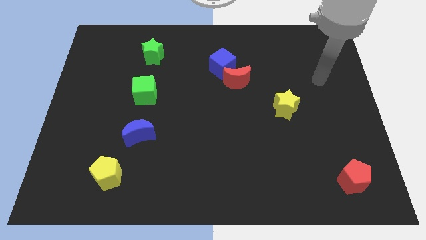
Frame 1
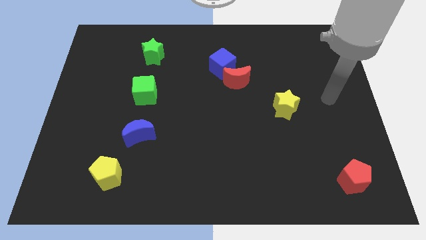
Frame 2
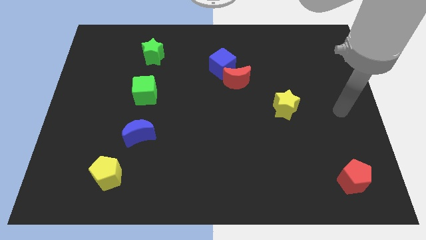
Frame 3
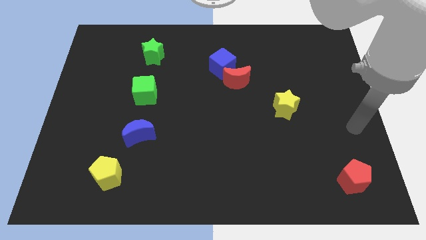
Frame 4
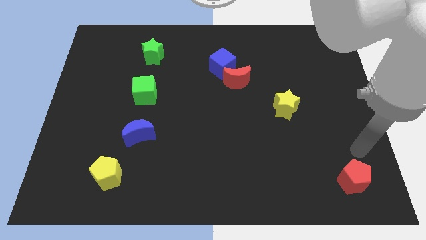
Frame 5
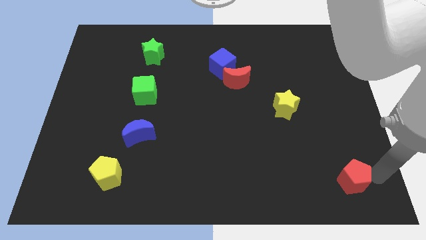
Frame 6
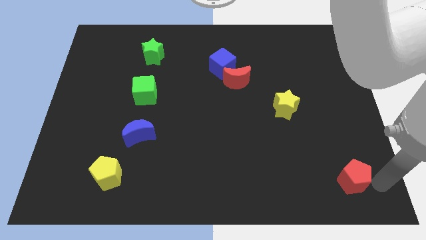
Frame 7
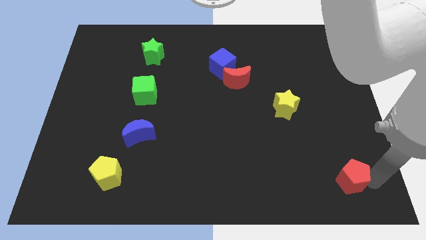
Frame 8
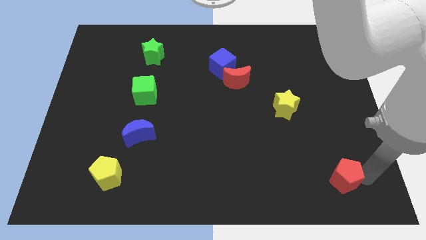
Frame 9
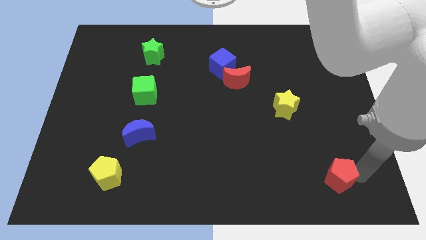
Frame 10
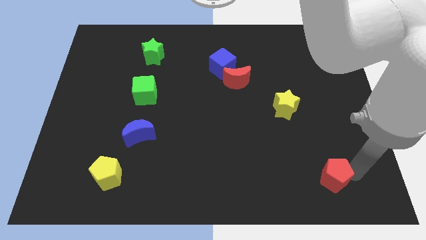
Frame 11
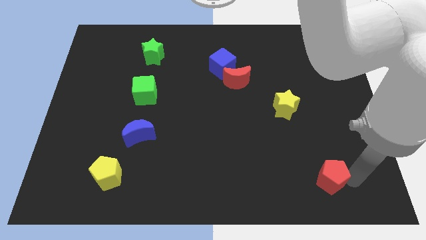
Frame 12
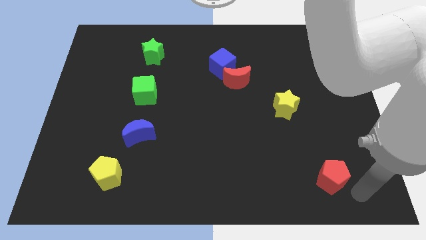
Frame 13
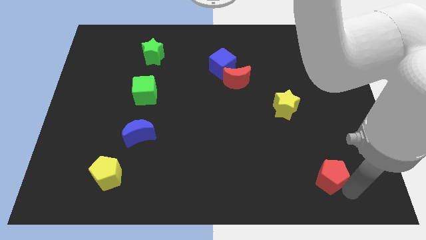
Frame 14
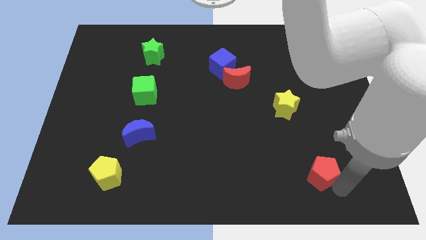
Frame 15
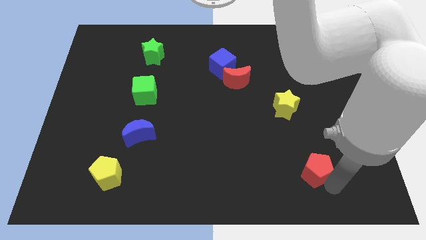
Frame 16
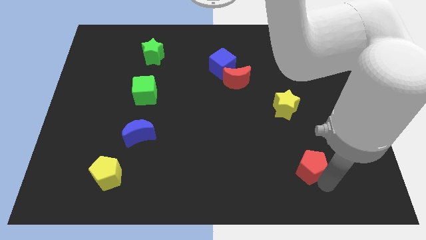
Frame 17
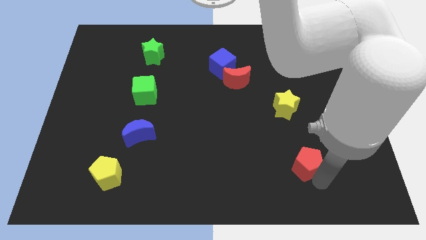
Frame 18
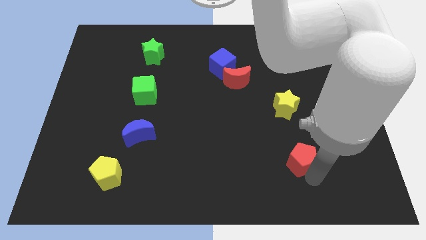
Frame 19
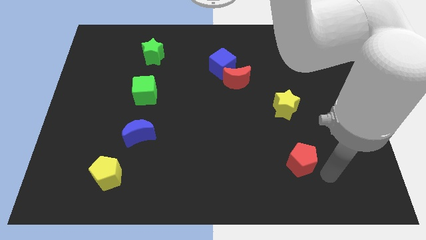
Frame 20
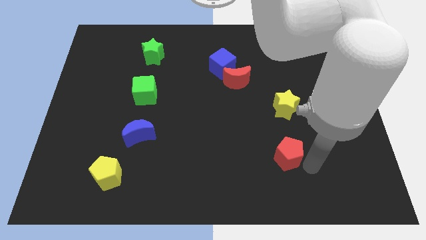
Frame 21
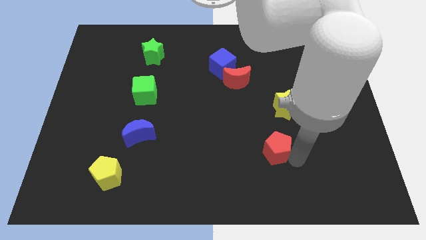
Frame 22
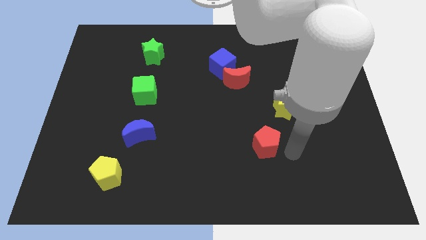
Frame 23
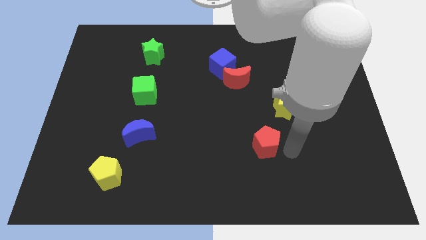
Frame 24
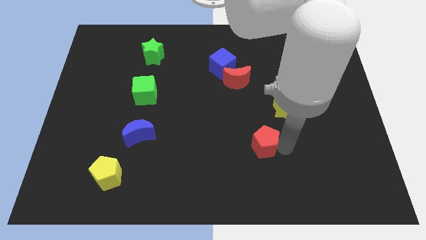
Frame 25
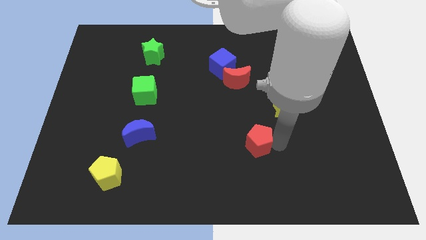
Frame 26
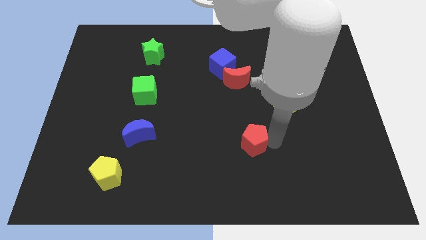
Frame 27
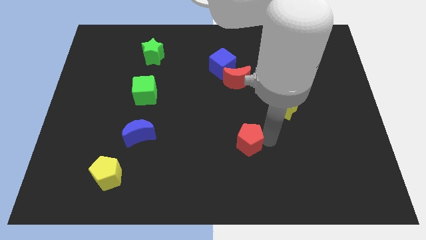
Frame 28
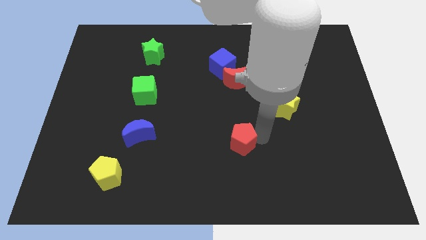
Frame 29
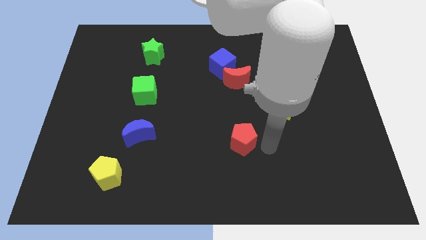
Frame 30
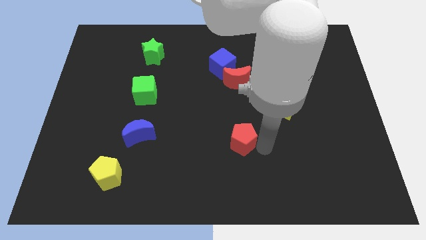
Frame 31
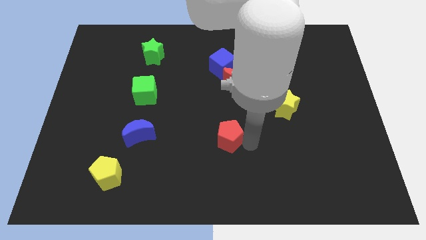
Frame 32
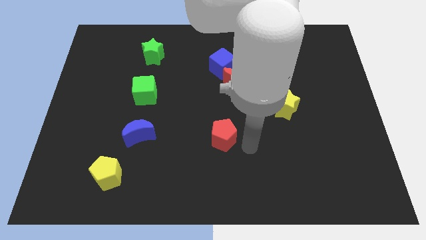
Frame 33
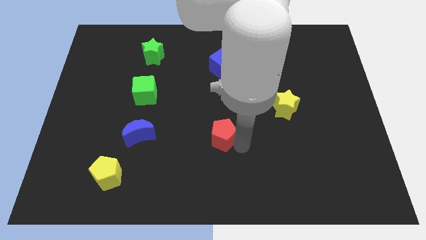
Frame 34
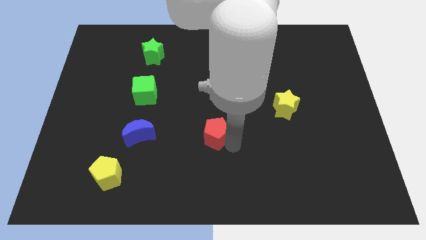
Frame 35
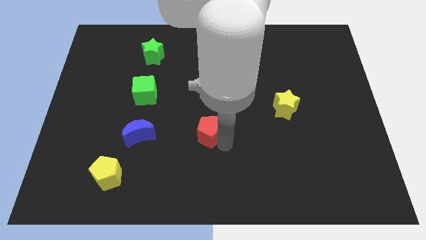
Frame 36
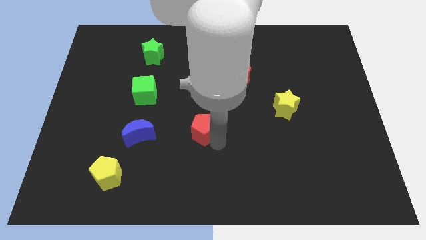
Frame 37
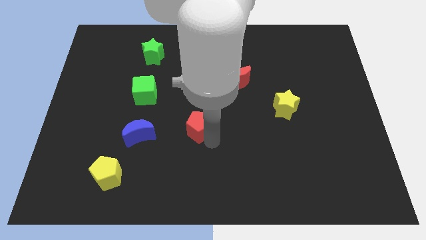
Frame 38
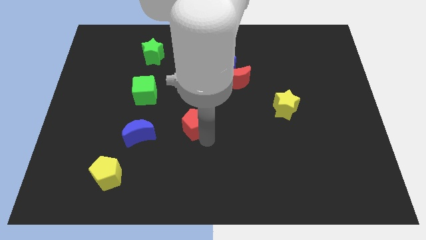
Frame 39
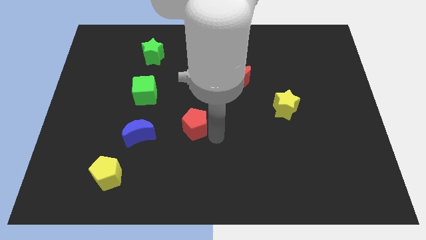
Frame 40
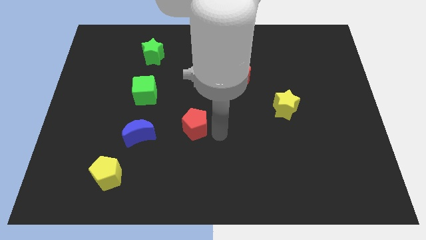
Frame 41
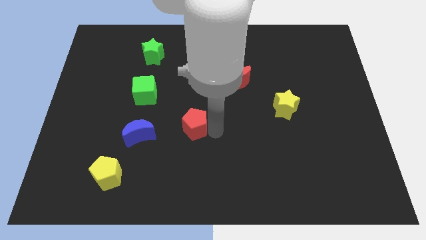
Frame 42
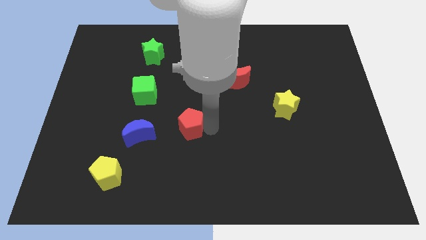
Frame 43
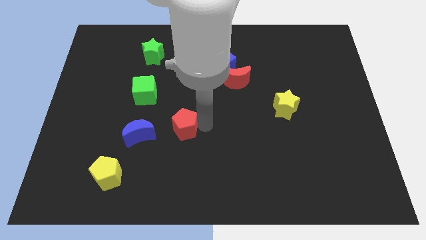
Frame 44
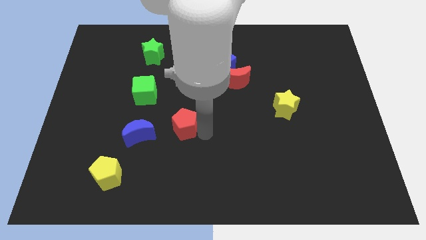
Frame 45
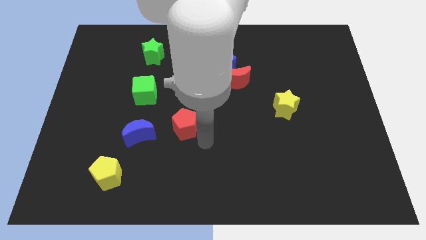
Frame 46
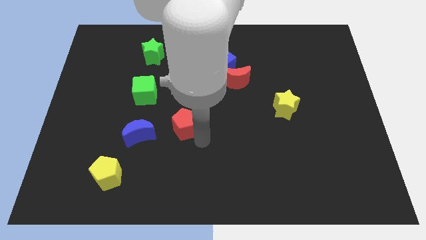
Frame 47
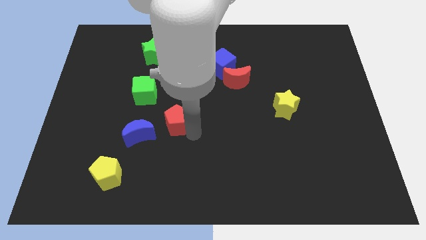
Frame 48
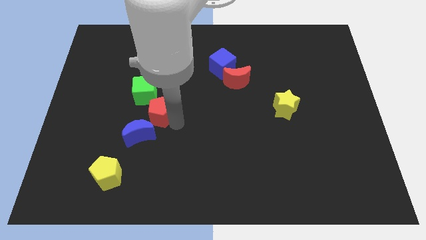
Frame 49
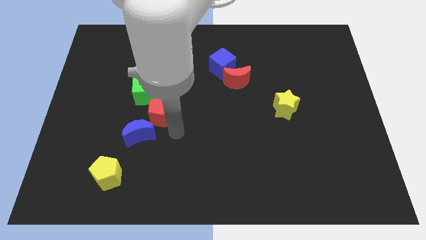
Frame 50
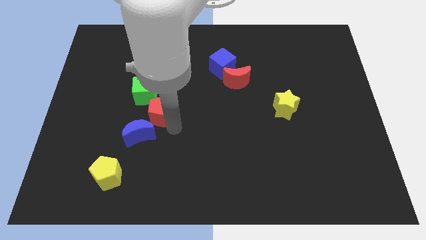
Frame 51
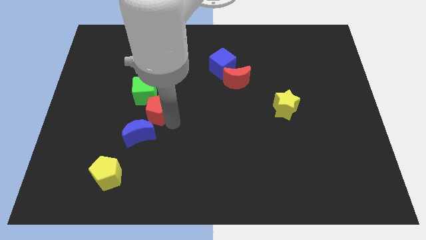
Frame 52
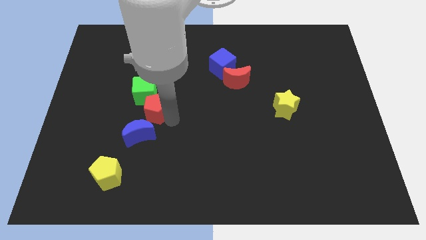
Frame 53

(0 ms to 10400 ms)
move the red pentagon close to the green cube

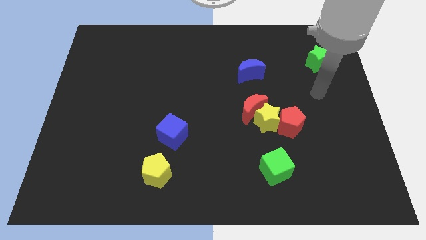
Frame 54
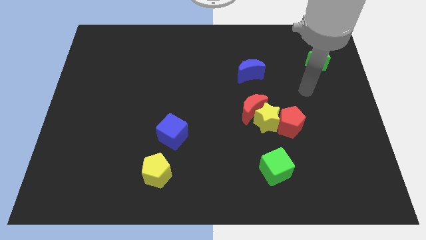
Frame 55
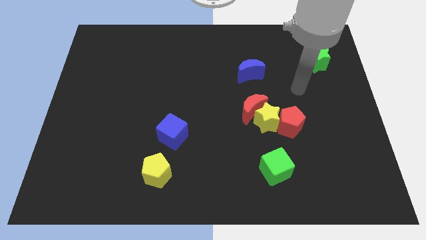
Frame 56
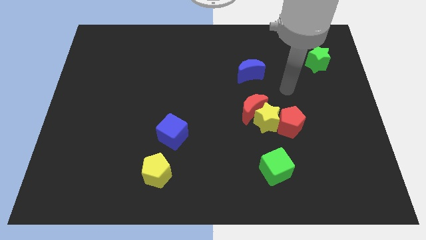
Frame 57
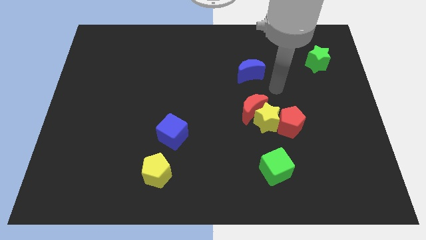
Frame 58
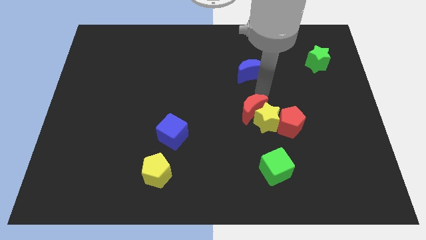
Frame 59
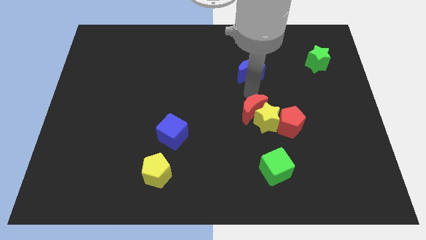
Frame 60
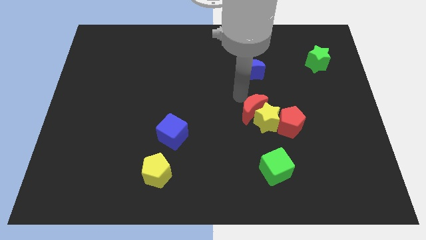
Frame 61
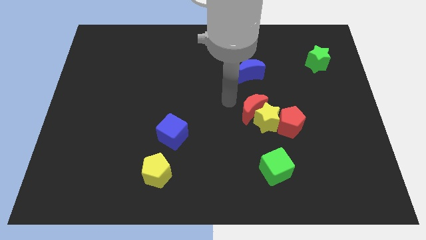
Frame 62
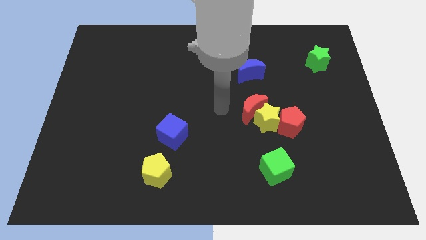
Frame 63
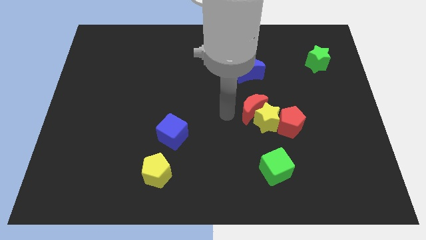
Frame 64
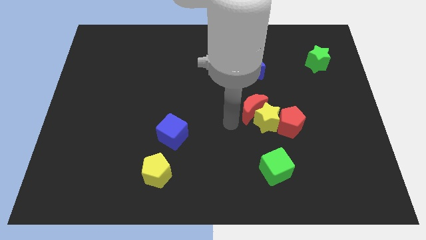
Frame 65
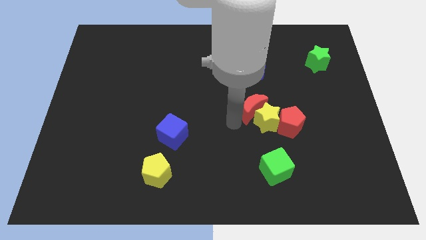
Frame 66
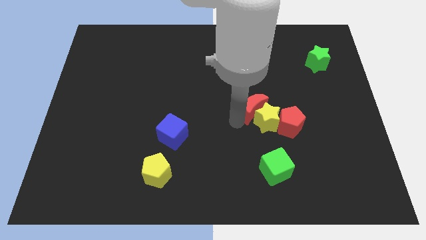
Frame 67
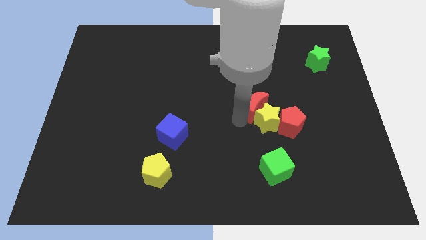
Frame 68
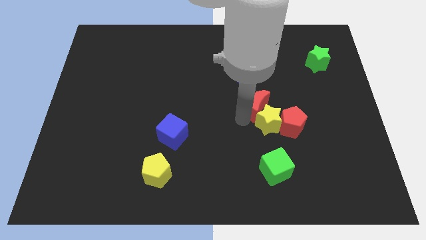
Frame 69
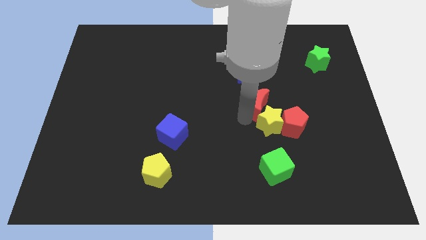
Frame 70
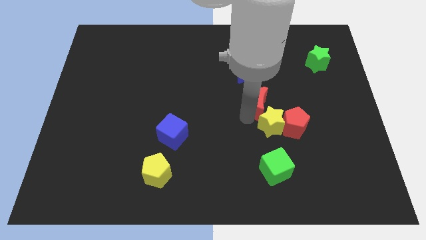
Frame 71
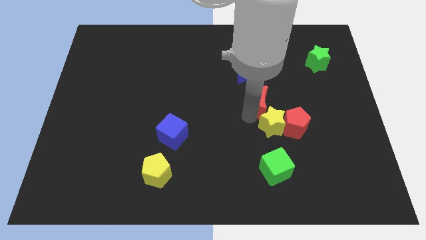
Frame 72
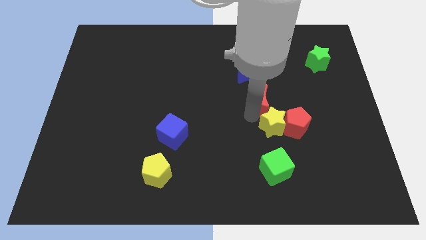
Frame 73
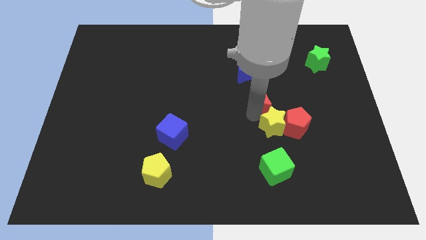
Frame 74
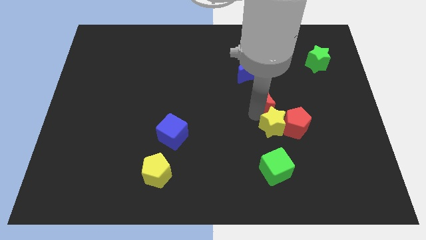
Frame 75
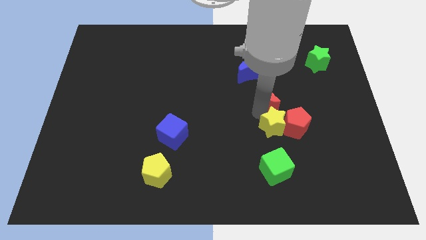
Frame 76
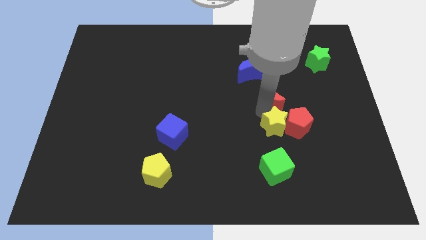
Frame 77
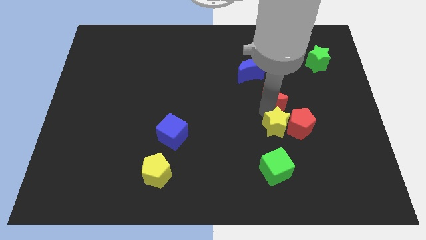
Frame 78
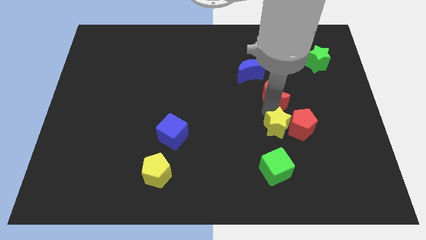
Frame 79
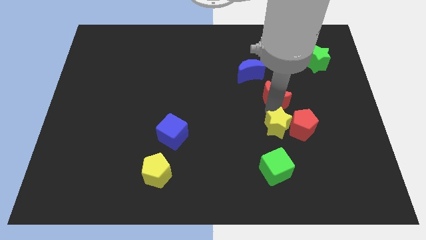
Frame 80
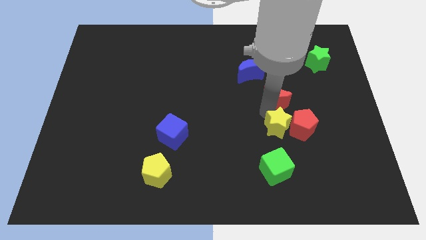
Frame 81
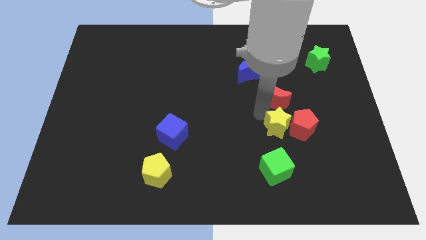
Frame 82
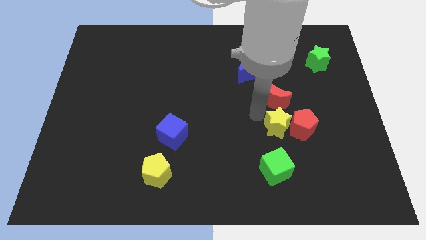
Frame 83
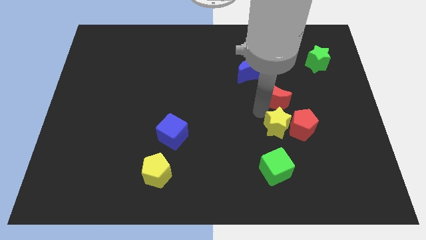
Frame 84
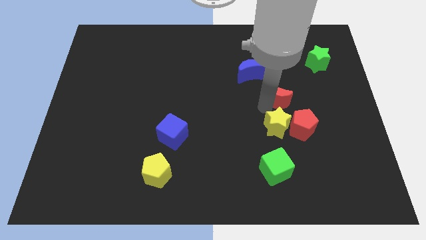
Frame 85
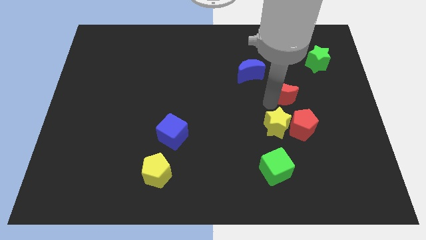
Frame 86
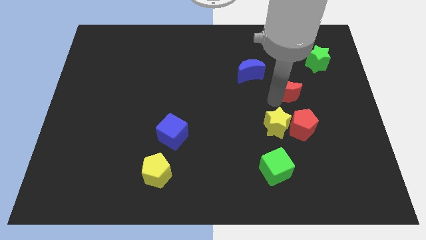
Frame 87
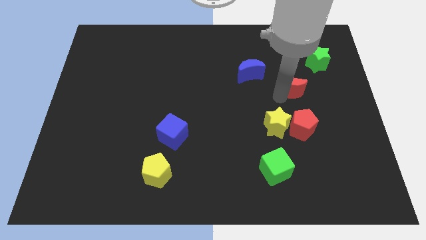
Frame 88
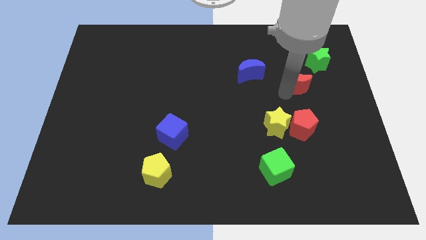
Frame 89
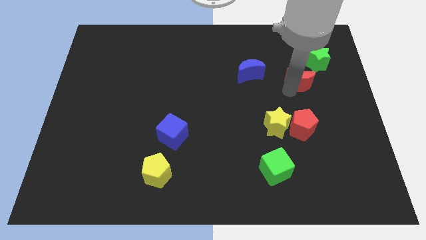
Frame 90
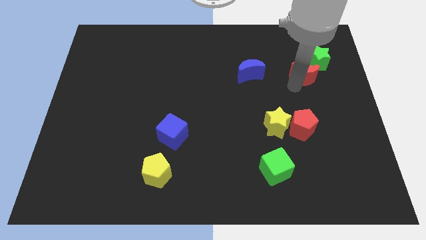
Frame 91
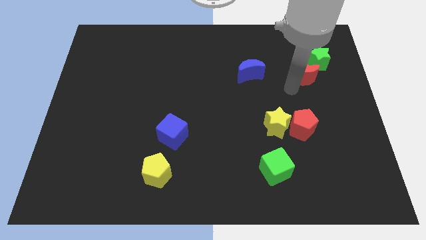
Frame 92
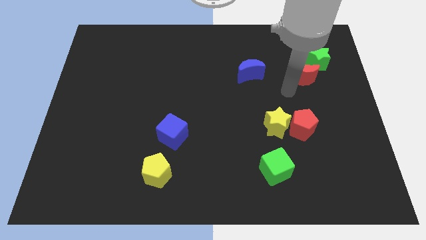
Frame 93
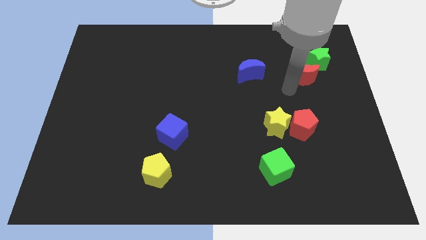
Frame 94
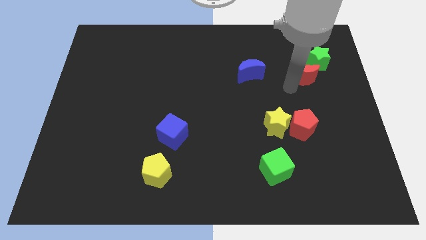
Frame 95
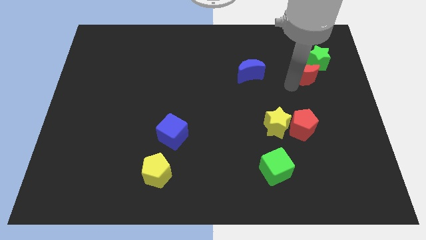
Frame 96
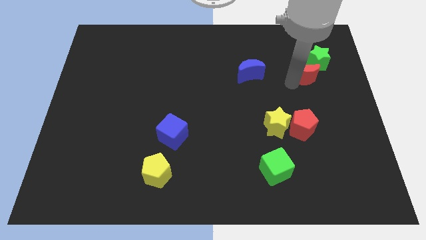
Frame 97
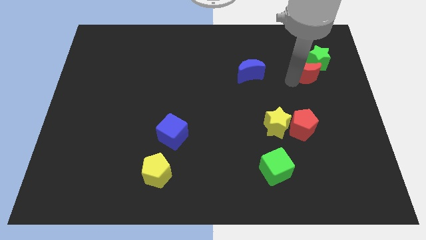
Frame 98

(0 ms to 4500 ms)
slide the red moon next to the green star
